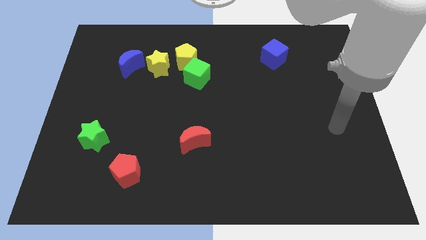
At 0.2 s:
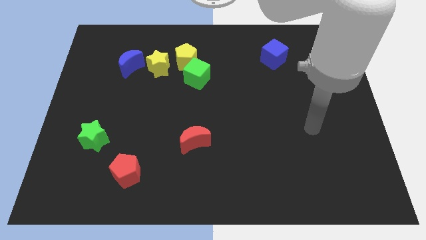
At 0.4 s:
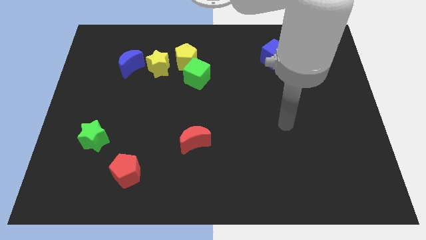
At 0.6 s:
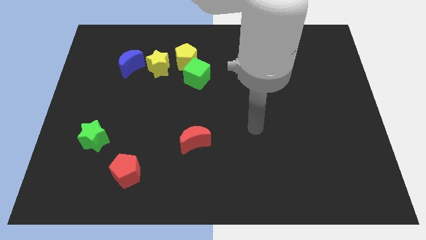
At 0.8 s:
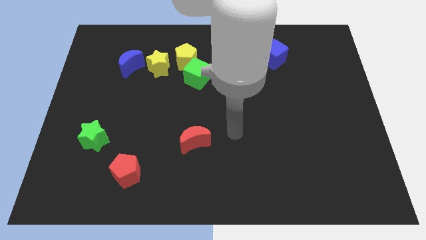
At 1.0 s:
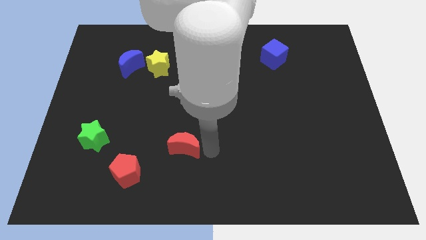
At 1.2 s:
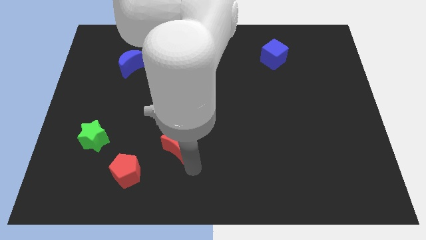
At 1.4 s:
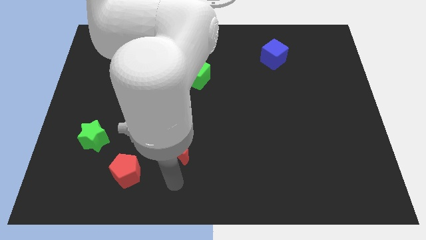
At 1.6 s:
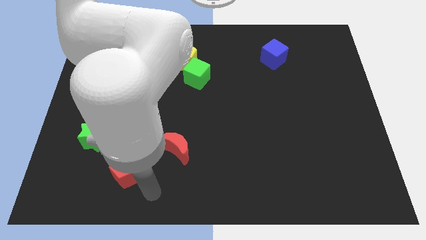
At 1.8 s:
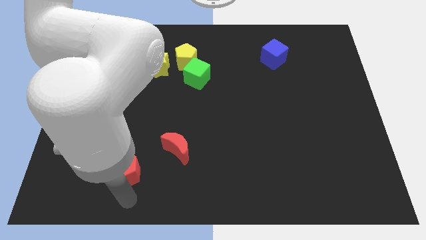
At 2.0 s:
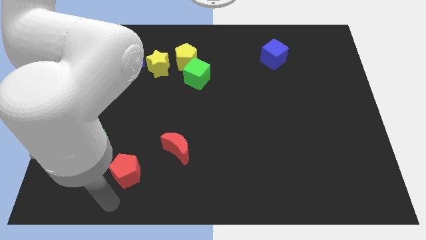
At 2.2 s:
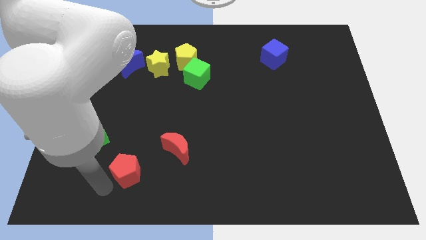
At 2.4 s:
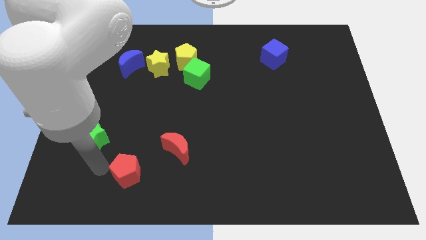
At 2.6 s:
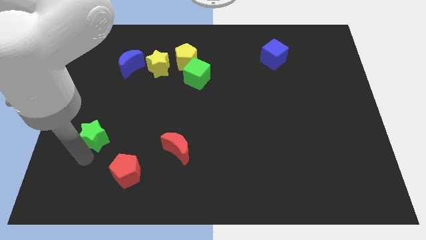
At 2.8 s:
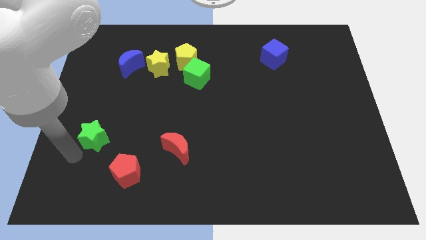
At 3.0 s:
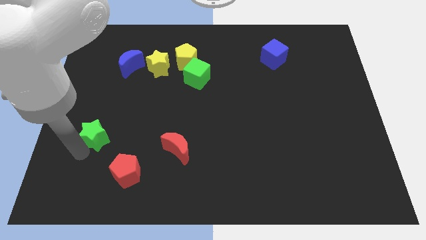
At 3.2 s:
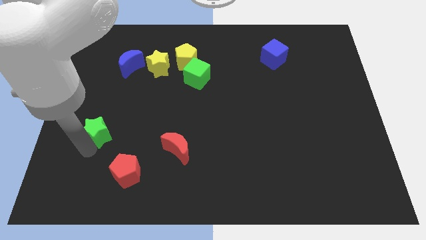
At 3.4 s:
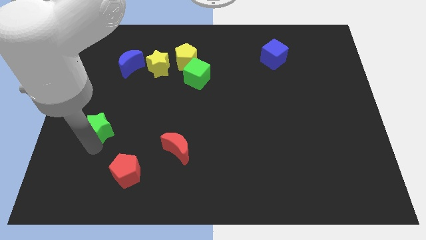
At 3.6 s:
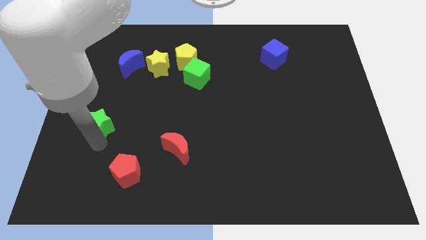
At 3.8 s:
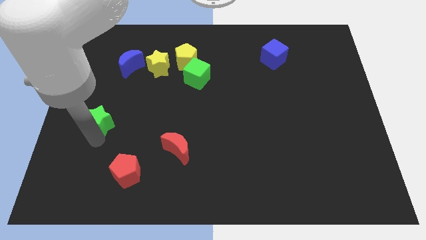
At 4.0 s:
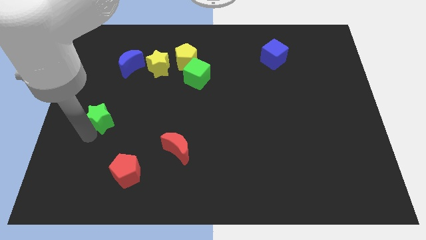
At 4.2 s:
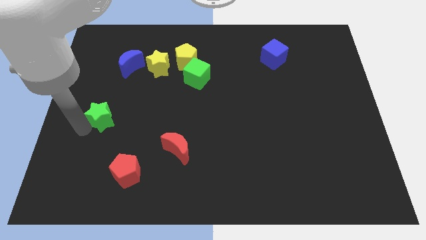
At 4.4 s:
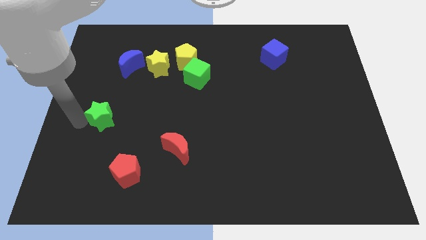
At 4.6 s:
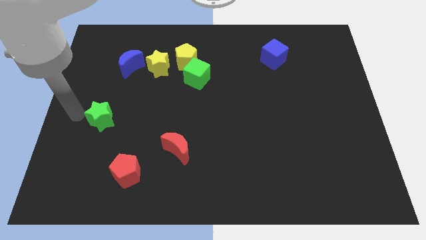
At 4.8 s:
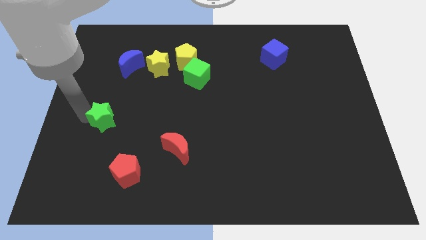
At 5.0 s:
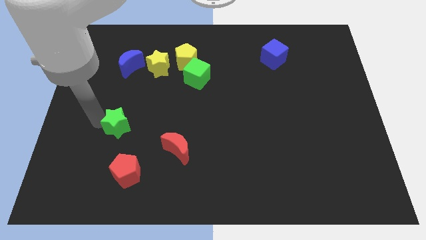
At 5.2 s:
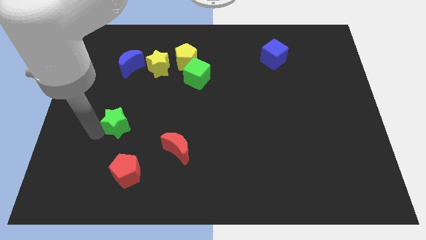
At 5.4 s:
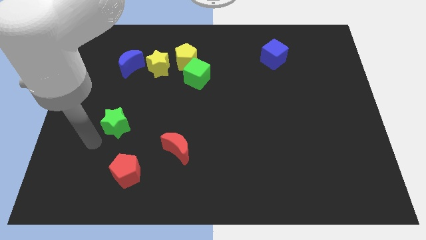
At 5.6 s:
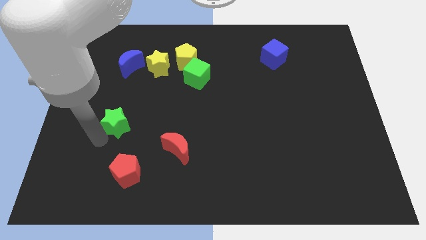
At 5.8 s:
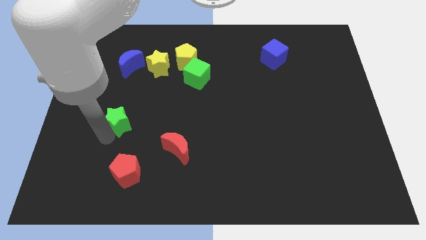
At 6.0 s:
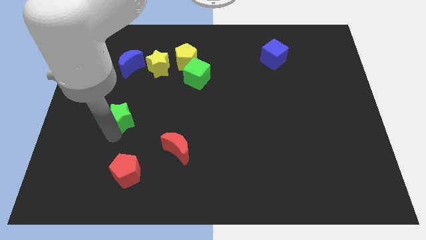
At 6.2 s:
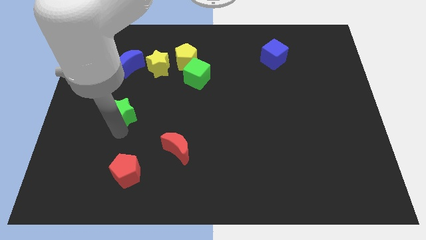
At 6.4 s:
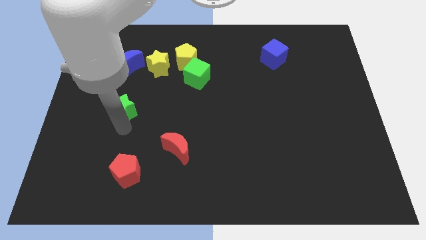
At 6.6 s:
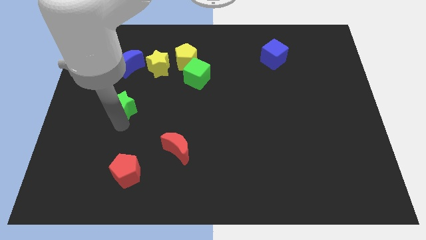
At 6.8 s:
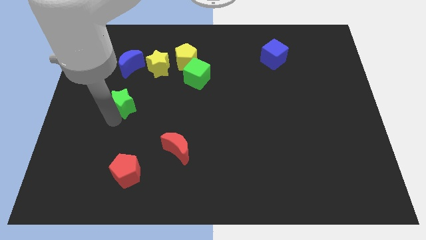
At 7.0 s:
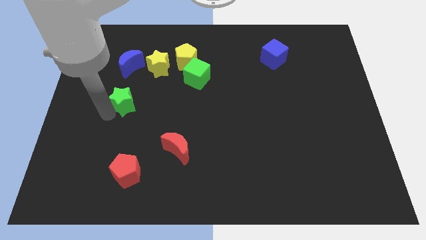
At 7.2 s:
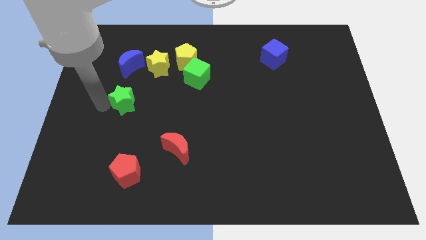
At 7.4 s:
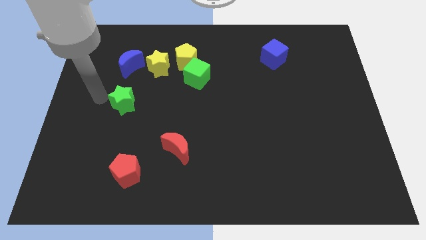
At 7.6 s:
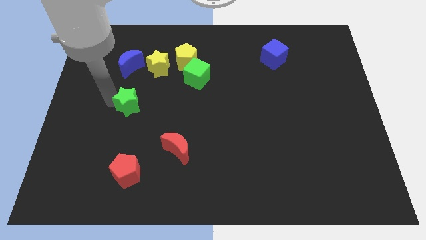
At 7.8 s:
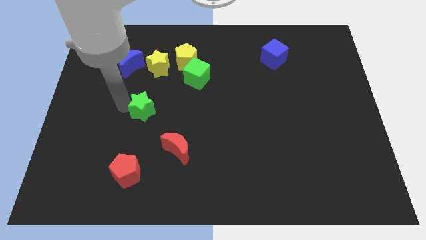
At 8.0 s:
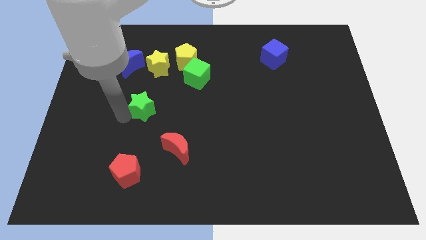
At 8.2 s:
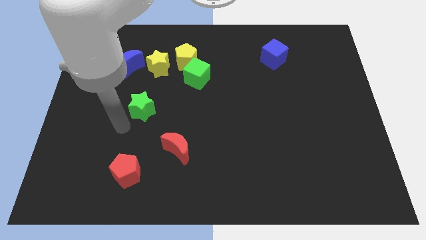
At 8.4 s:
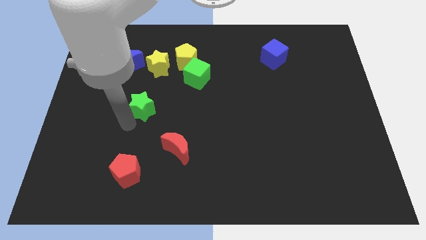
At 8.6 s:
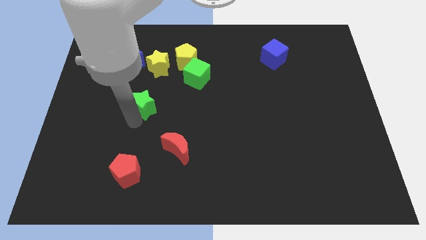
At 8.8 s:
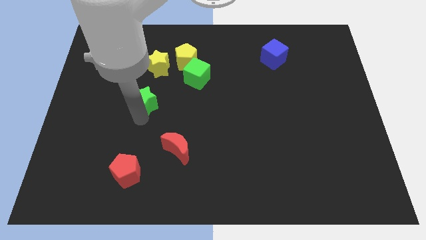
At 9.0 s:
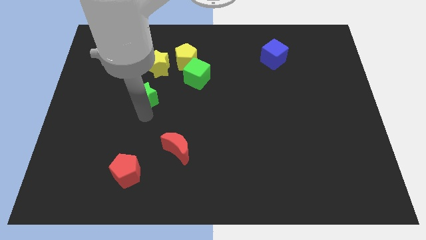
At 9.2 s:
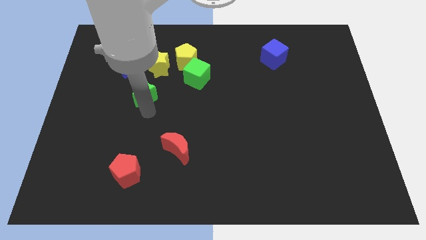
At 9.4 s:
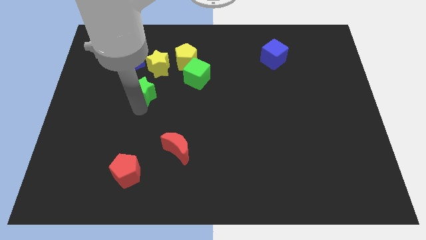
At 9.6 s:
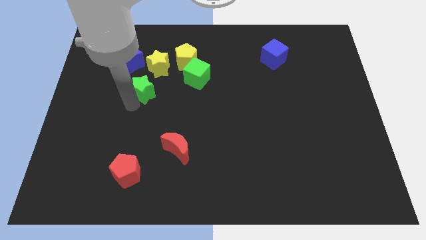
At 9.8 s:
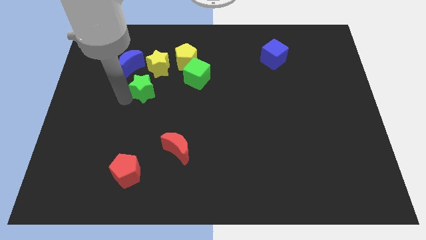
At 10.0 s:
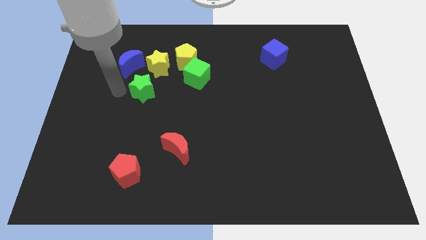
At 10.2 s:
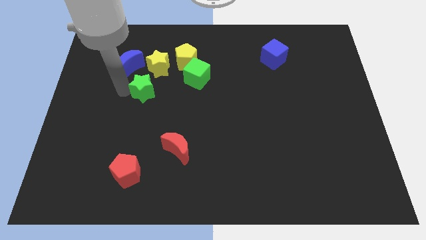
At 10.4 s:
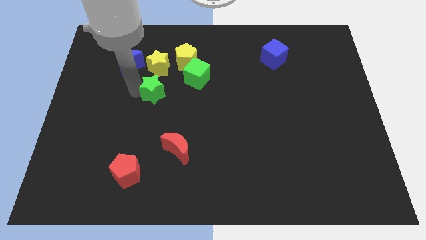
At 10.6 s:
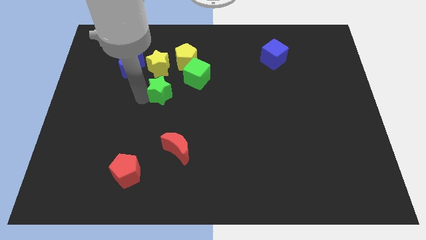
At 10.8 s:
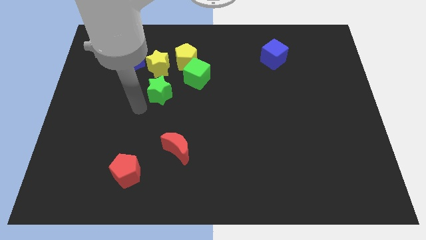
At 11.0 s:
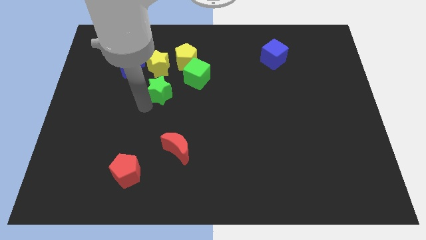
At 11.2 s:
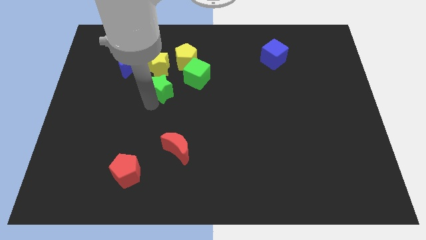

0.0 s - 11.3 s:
slide the green star to the bottom right of the yellow star

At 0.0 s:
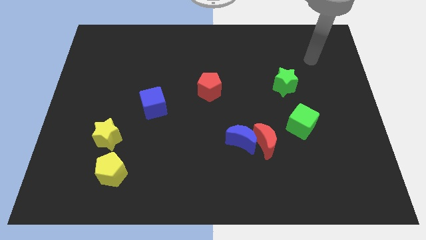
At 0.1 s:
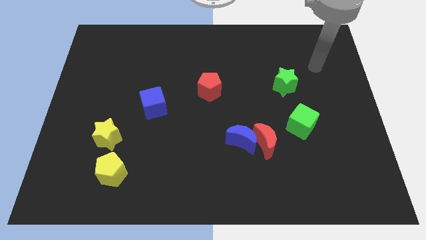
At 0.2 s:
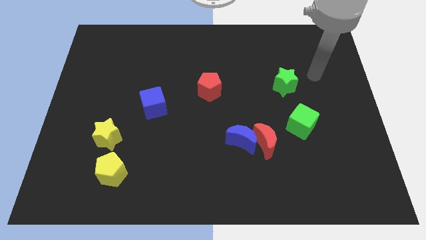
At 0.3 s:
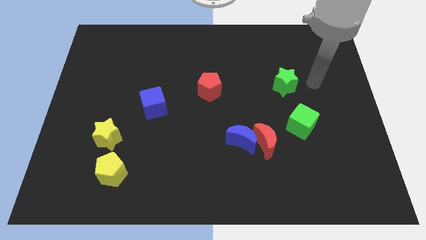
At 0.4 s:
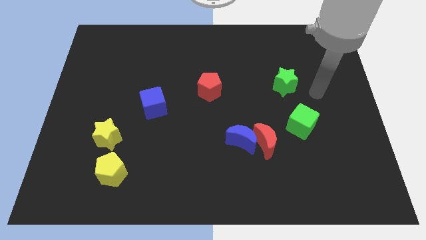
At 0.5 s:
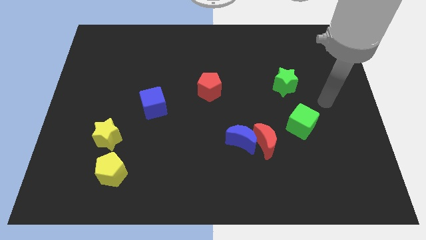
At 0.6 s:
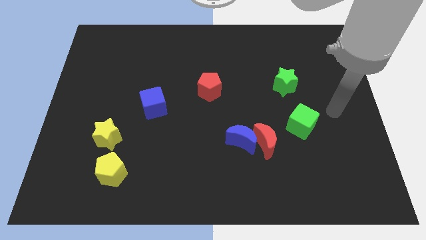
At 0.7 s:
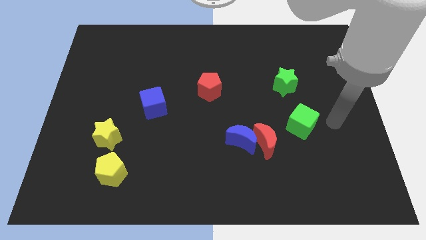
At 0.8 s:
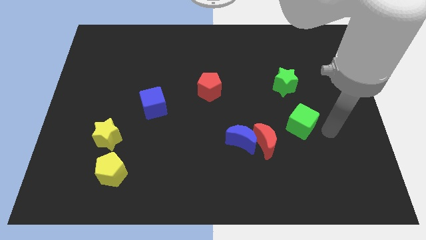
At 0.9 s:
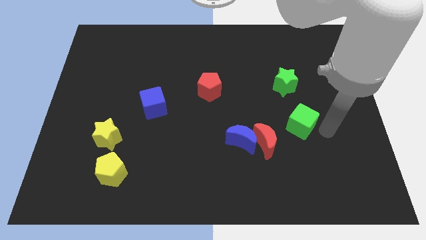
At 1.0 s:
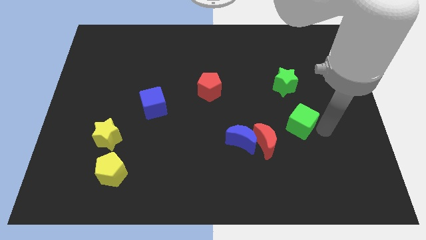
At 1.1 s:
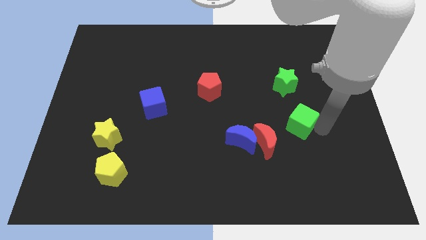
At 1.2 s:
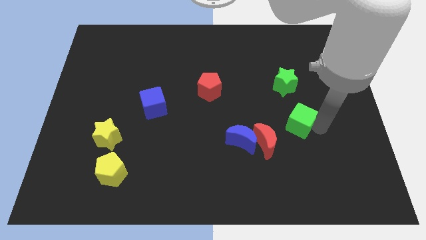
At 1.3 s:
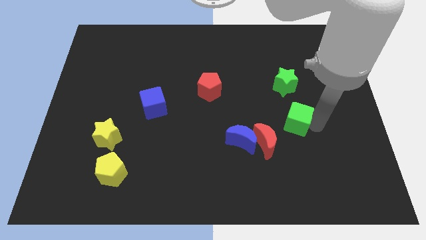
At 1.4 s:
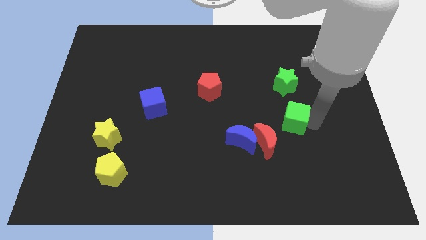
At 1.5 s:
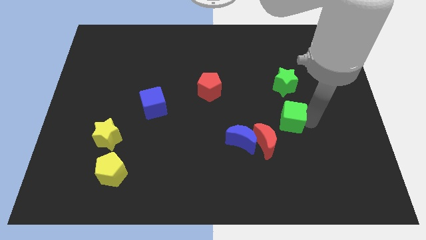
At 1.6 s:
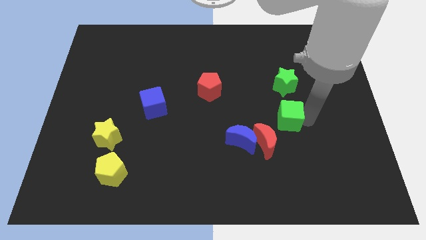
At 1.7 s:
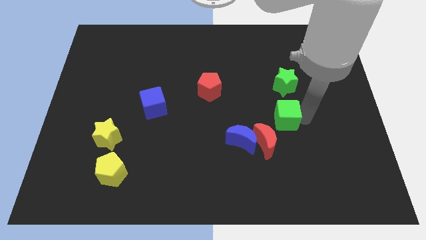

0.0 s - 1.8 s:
move the green cube to the top right of the blue moon

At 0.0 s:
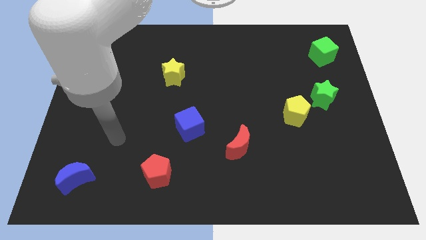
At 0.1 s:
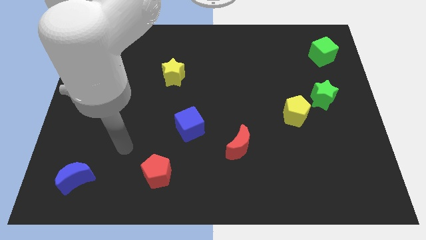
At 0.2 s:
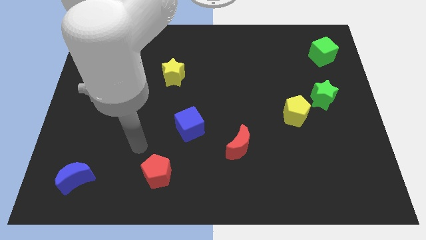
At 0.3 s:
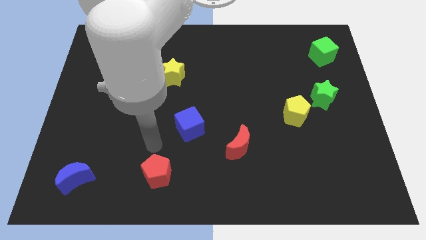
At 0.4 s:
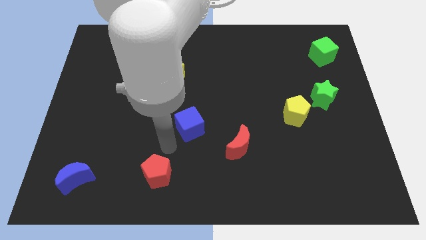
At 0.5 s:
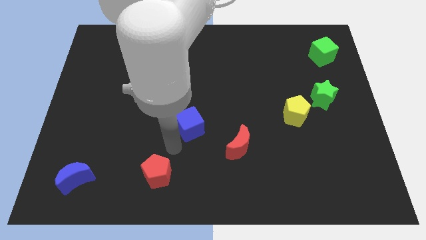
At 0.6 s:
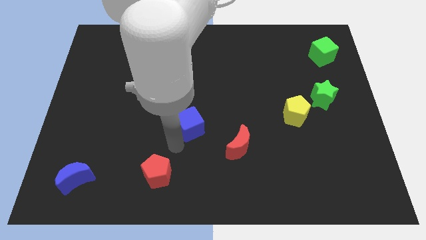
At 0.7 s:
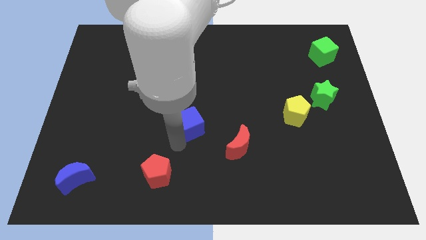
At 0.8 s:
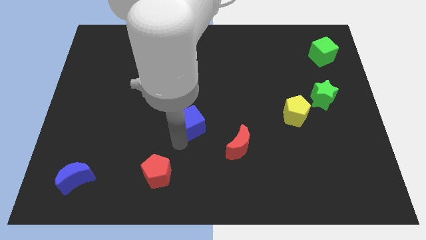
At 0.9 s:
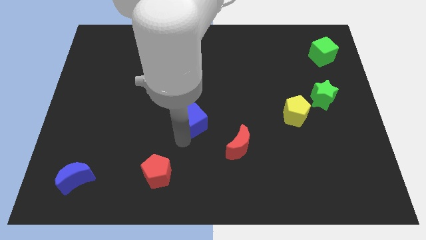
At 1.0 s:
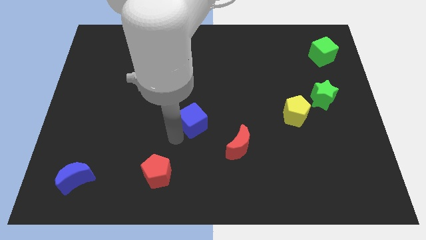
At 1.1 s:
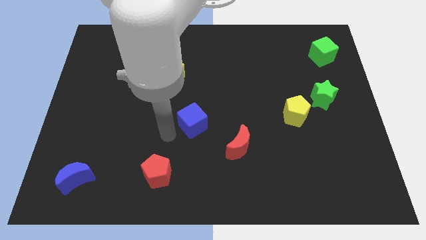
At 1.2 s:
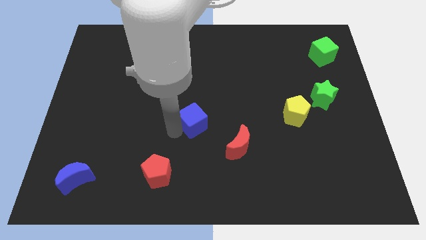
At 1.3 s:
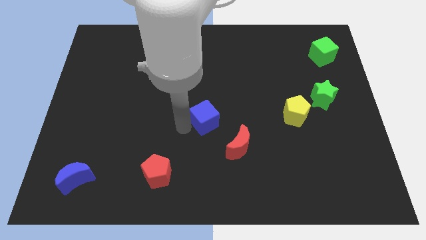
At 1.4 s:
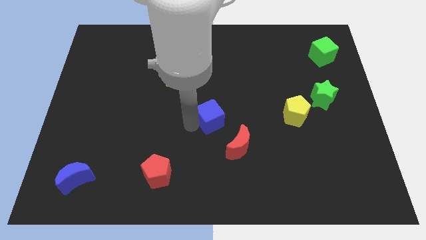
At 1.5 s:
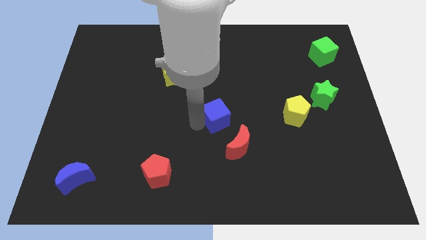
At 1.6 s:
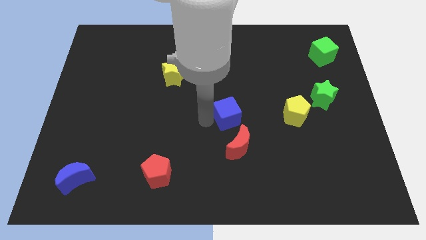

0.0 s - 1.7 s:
push the blue cube just left of the yellow pentagon
